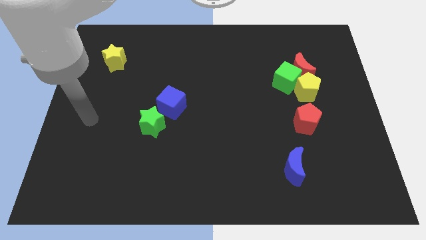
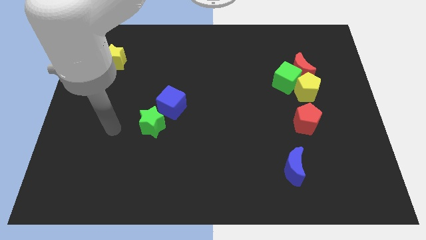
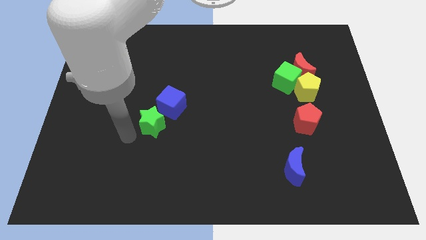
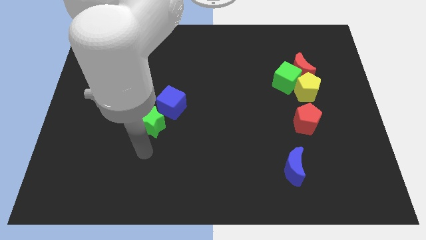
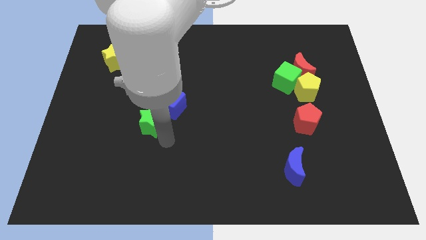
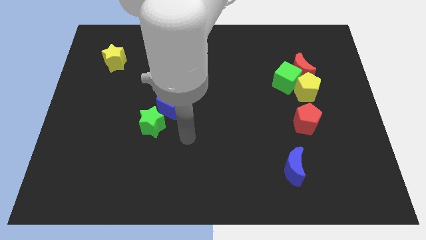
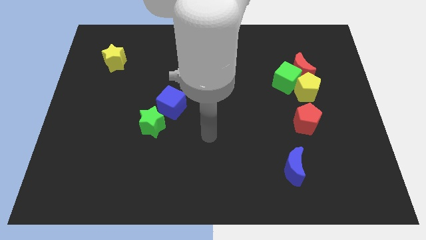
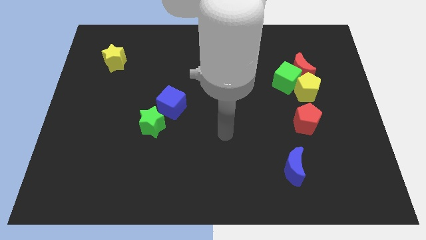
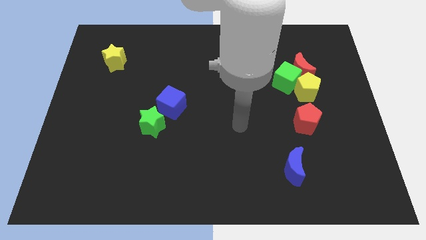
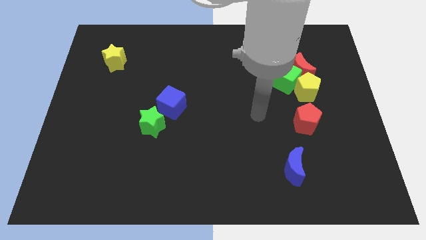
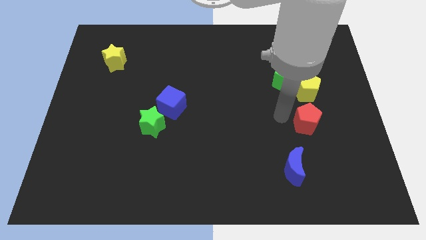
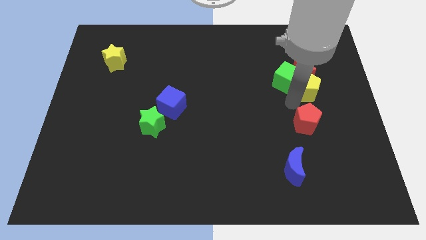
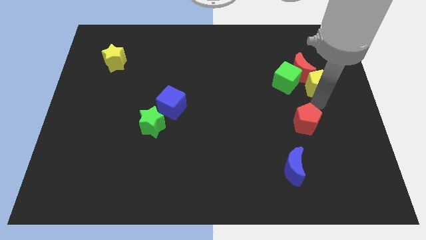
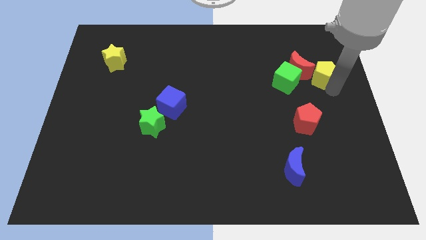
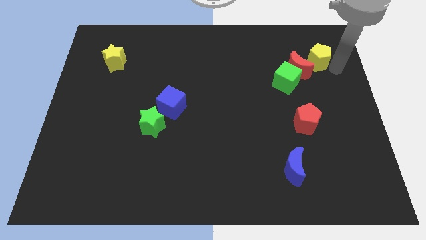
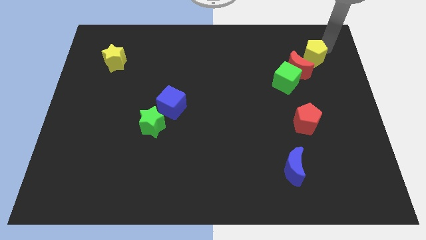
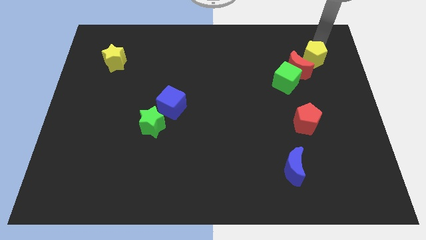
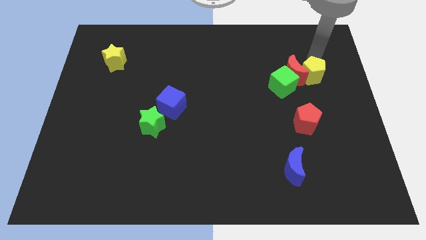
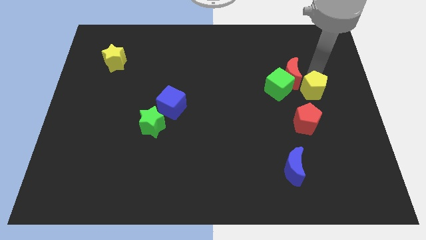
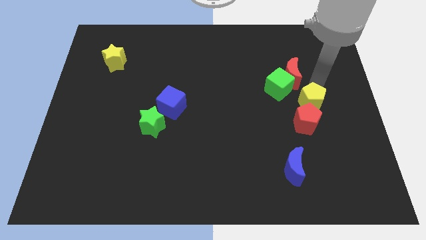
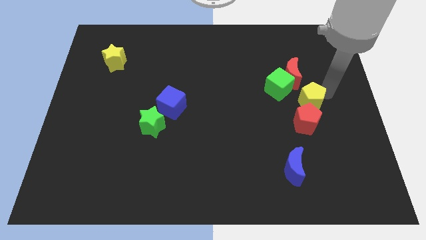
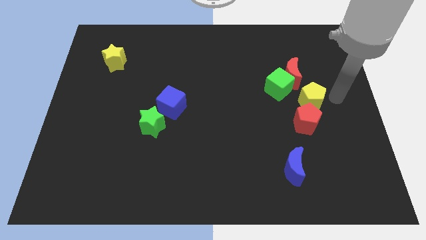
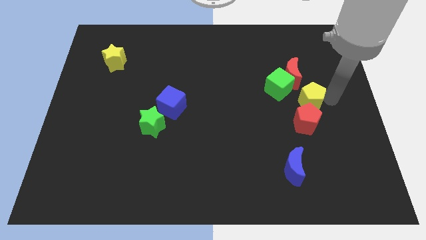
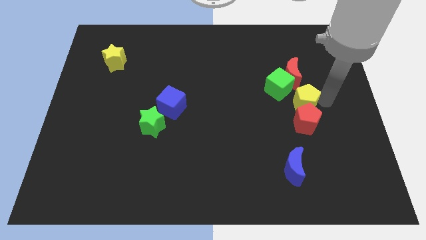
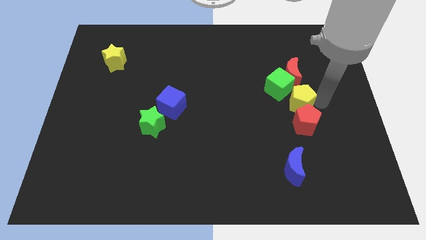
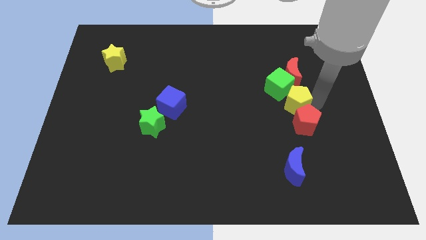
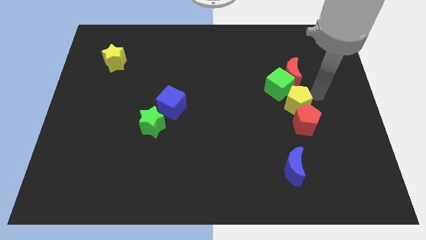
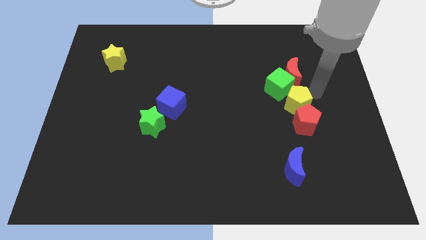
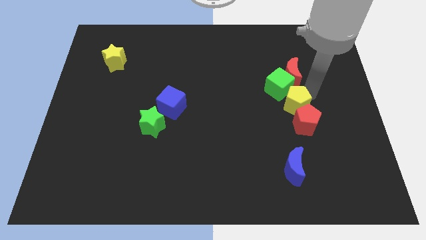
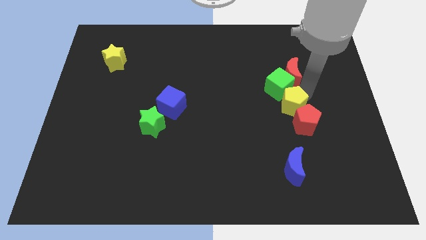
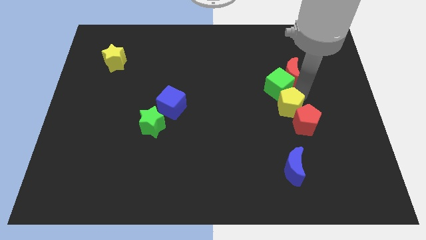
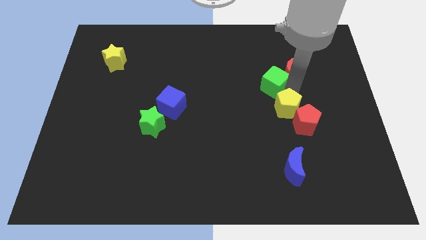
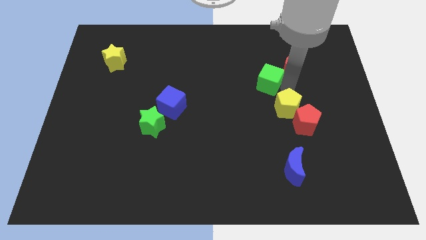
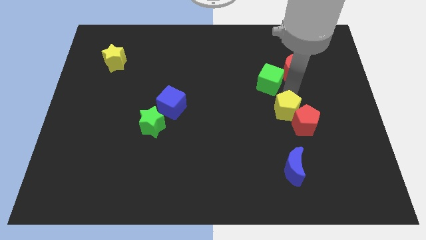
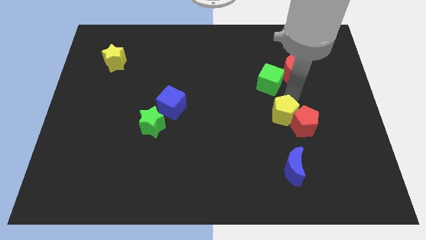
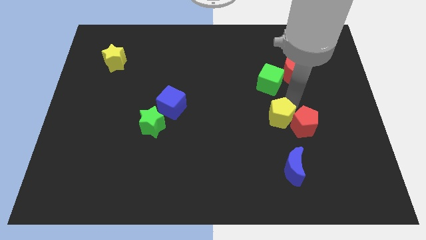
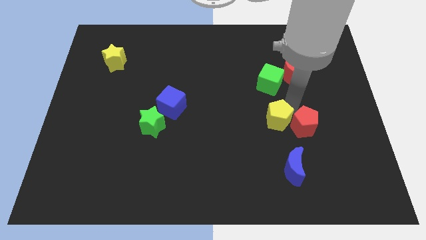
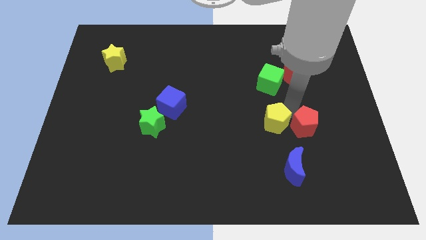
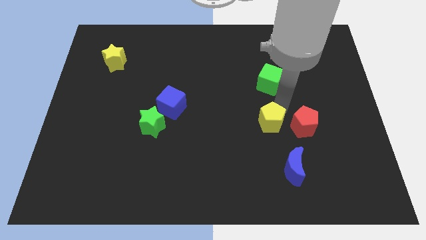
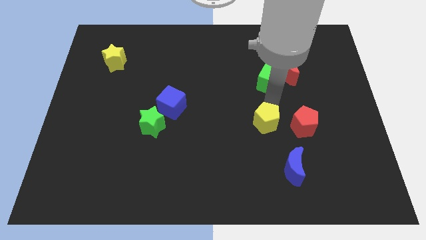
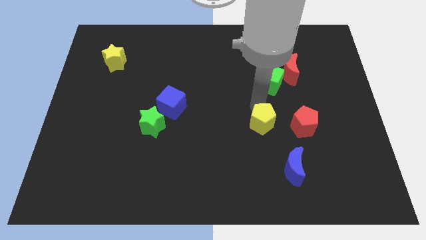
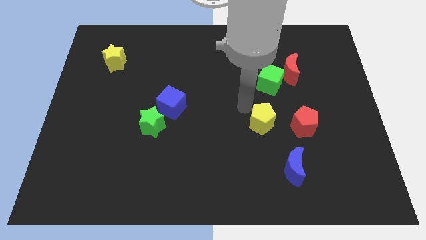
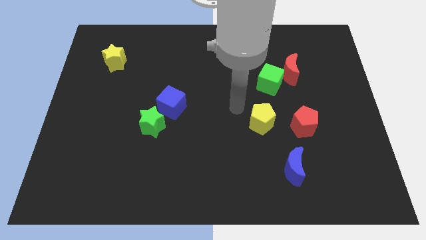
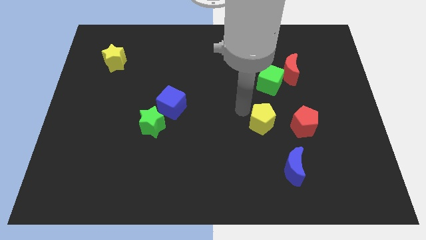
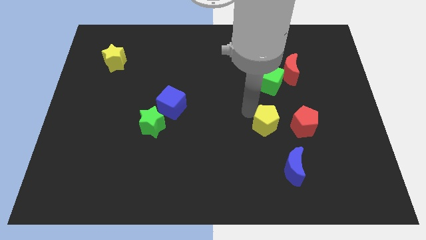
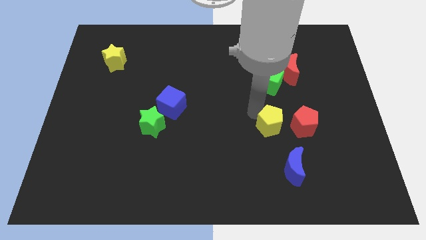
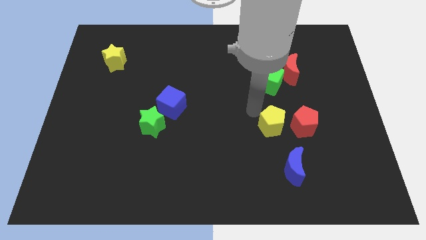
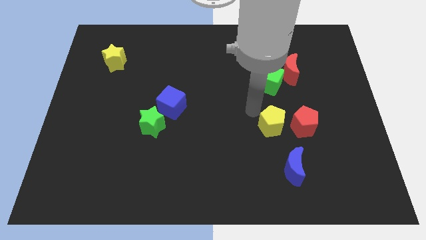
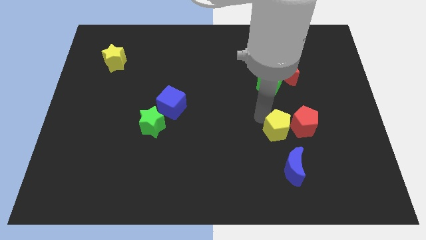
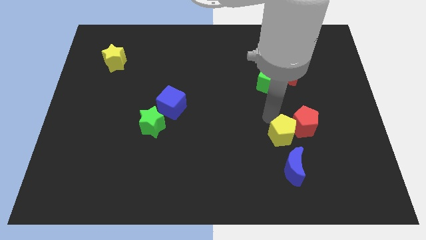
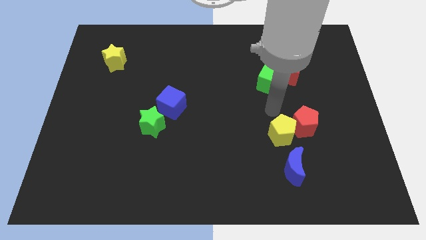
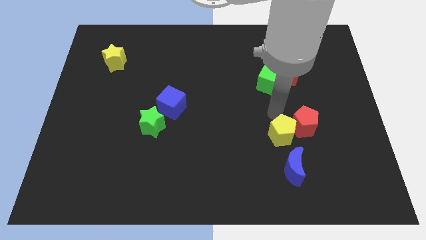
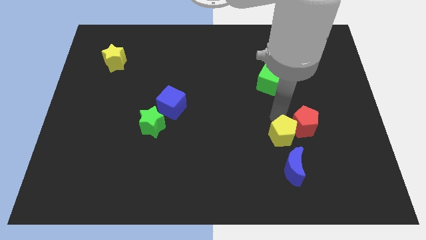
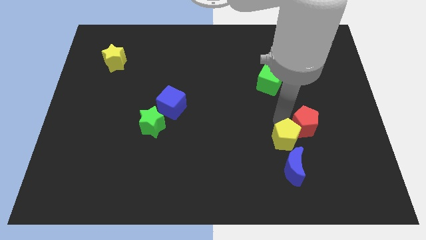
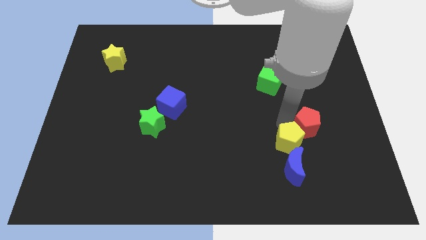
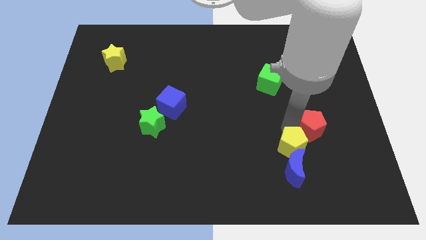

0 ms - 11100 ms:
put the yellow pentagon towards the blue moon

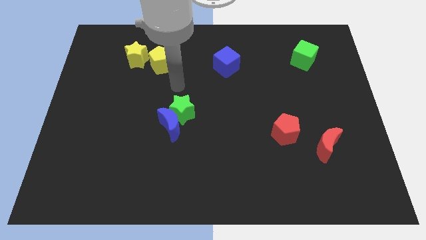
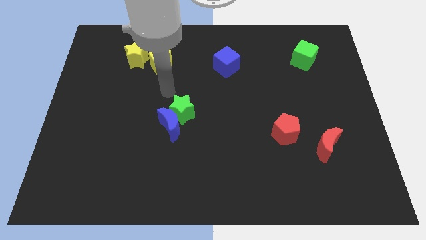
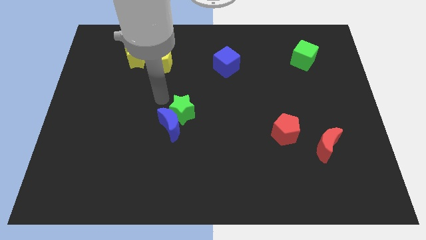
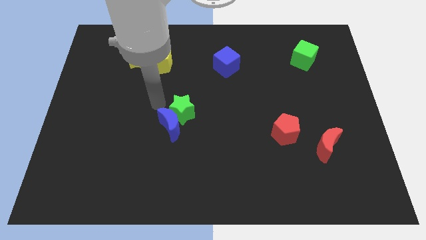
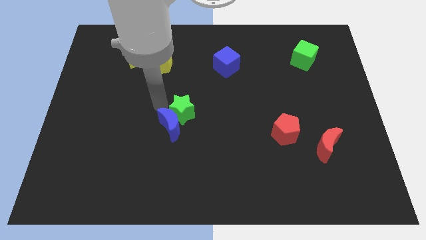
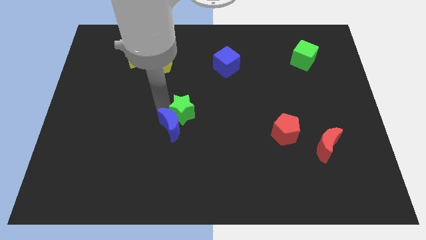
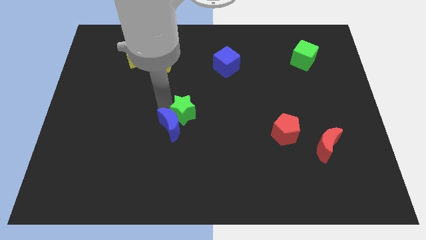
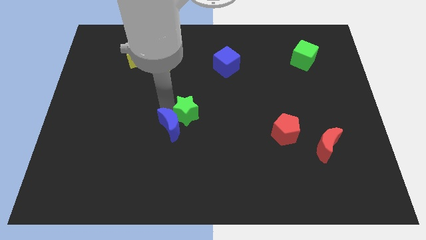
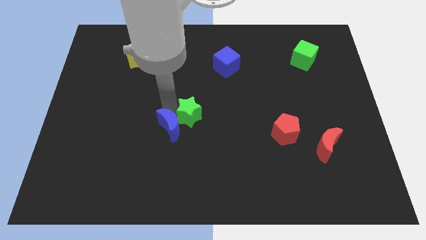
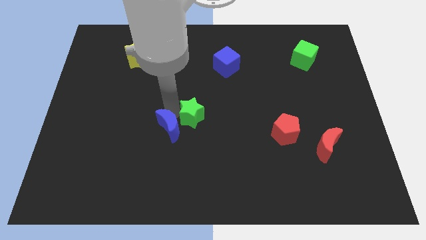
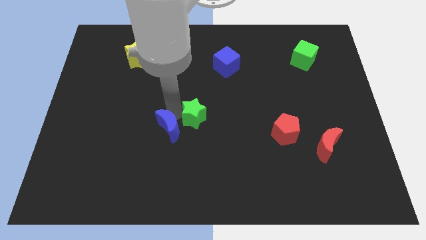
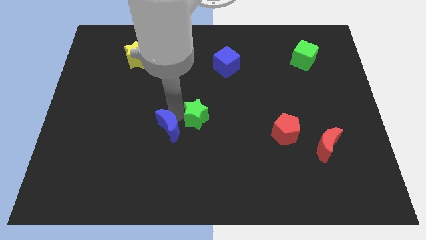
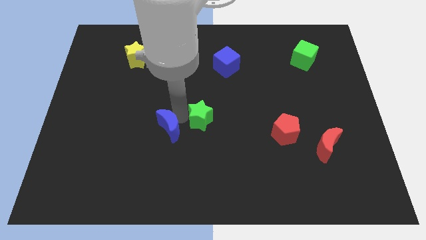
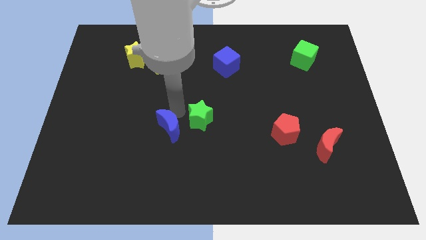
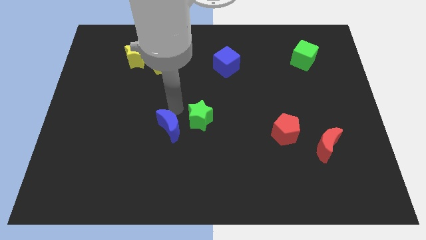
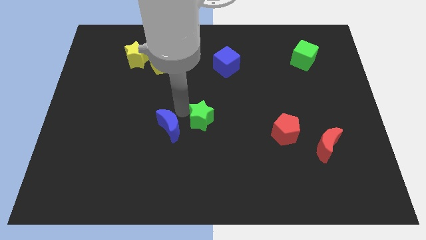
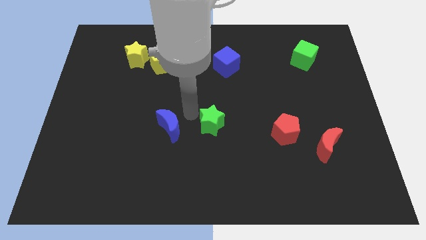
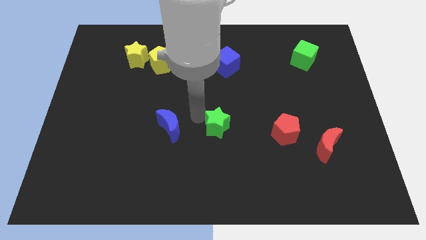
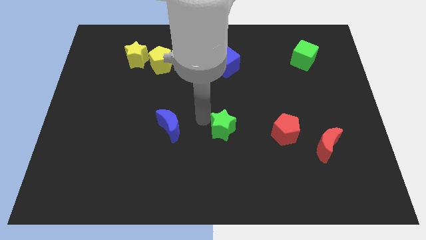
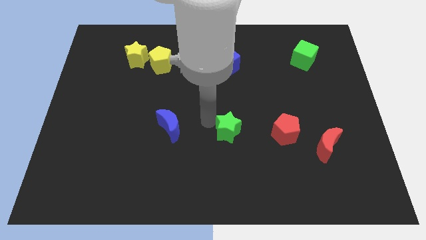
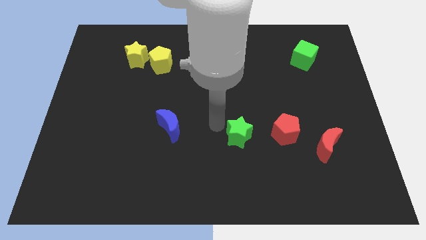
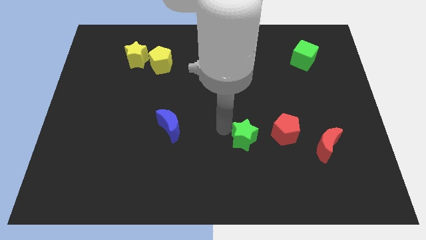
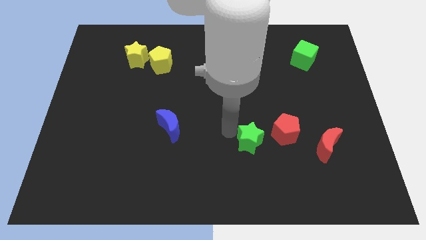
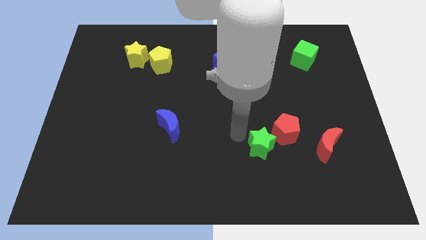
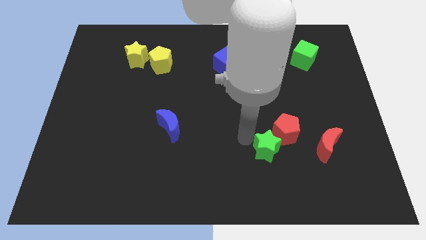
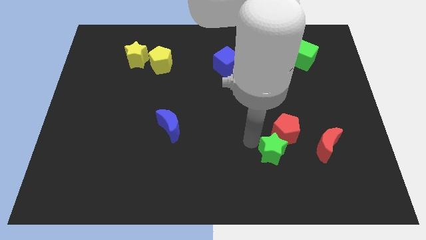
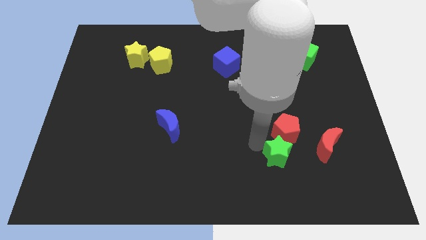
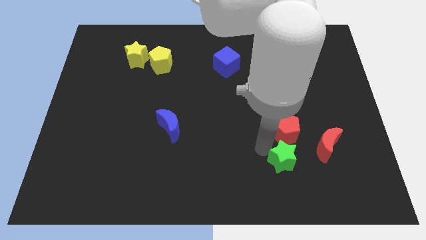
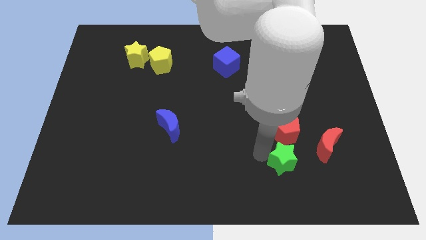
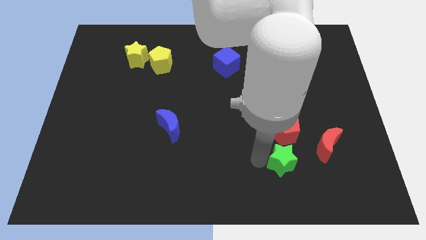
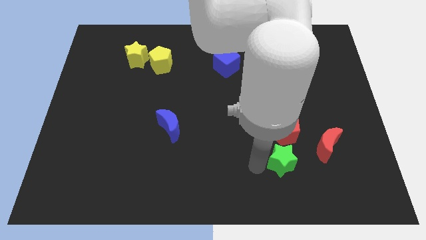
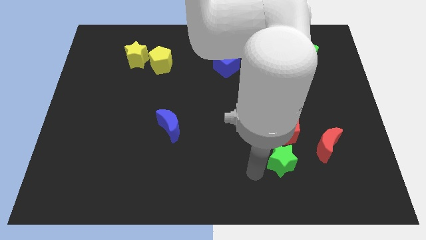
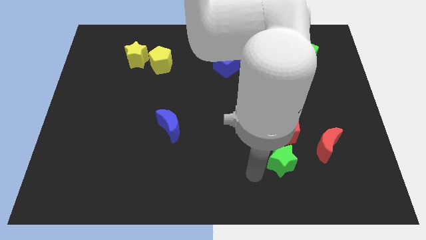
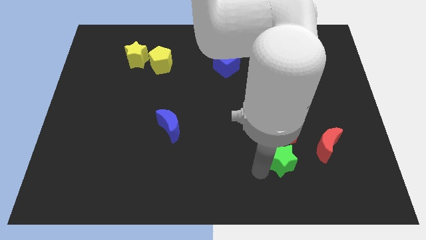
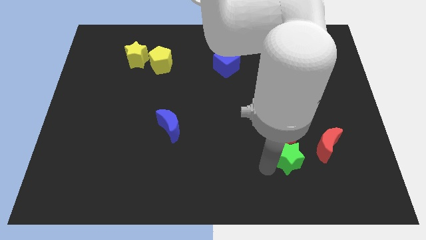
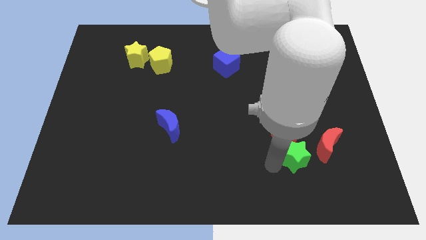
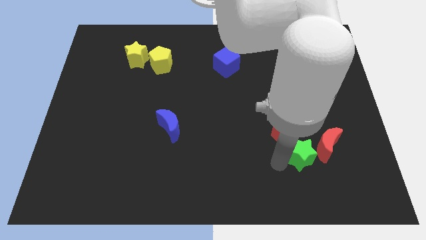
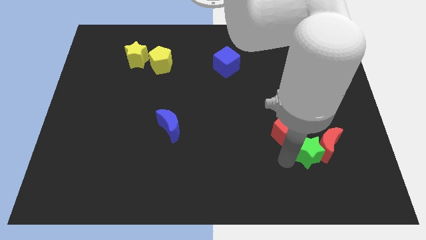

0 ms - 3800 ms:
put the green star to the red moon
